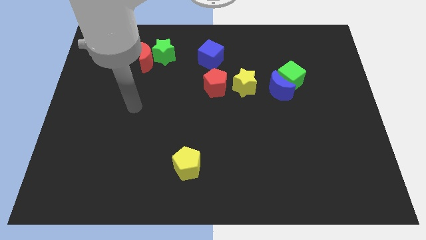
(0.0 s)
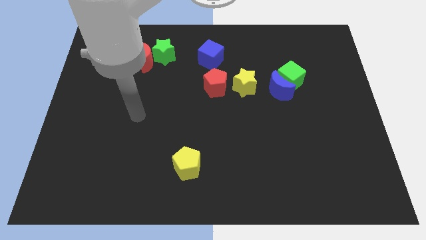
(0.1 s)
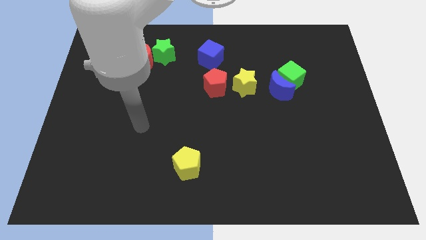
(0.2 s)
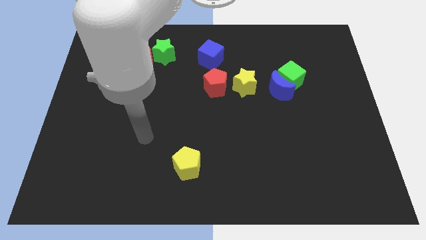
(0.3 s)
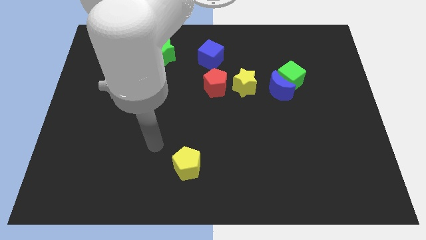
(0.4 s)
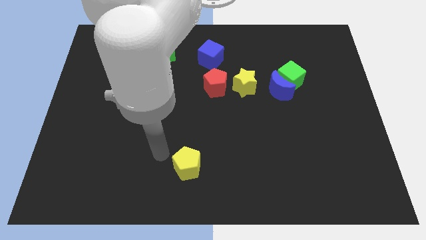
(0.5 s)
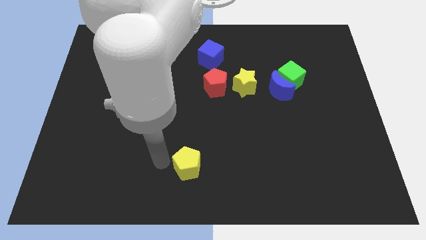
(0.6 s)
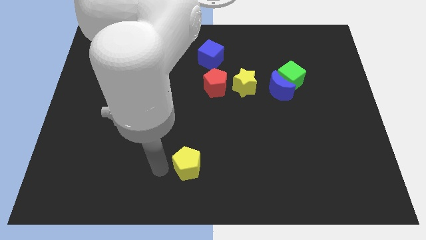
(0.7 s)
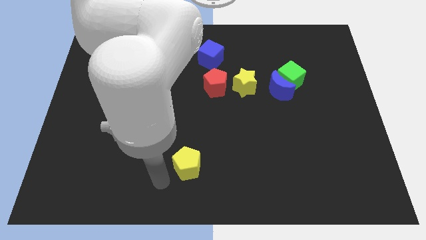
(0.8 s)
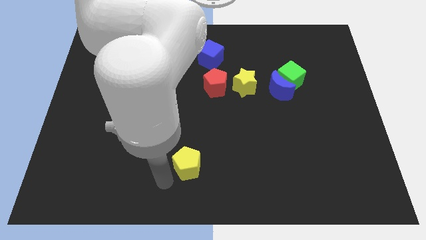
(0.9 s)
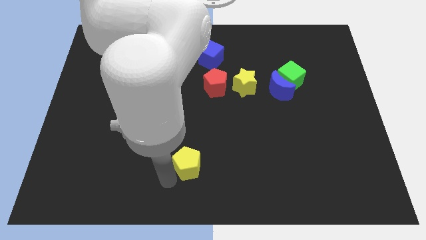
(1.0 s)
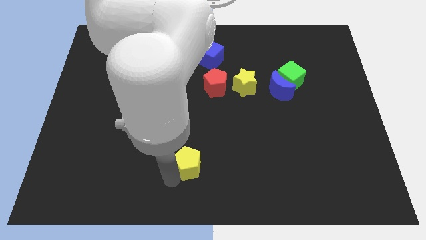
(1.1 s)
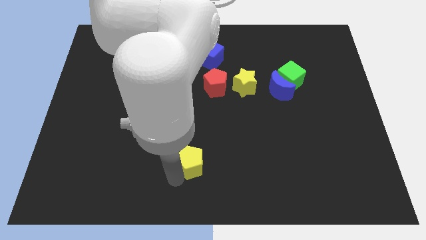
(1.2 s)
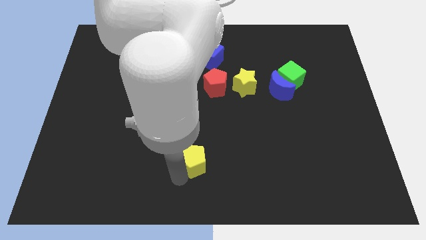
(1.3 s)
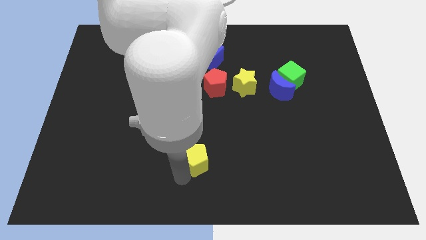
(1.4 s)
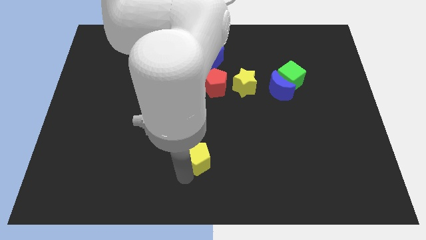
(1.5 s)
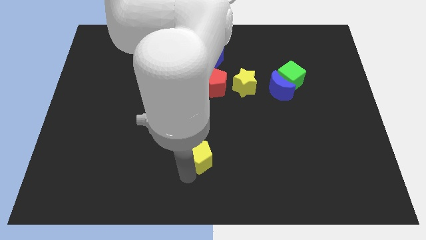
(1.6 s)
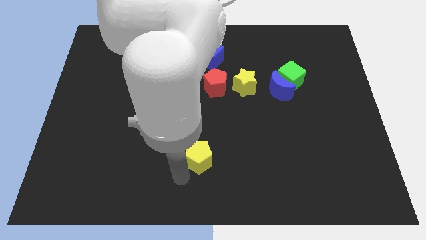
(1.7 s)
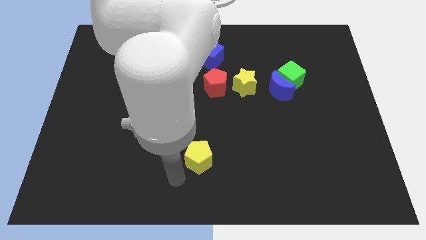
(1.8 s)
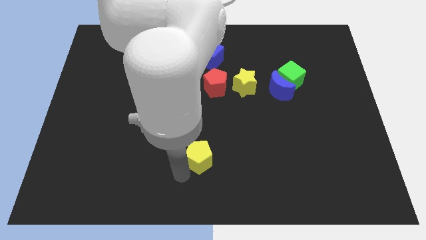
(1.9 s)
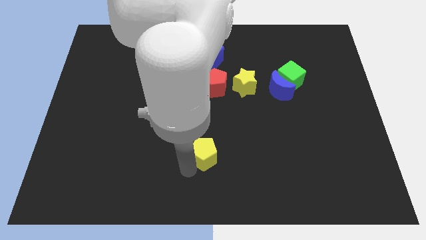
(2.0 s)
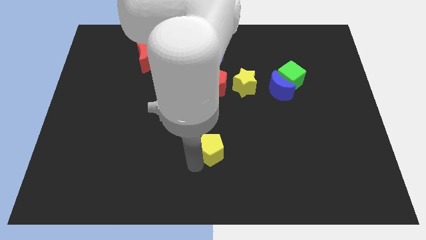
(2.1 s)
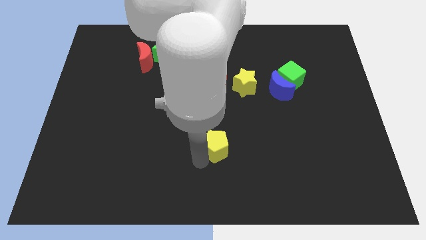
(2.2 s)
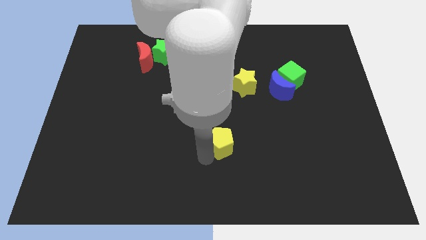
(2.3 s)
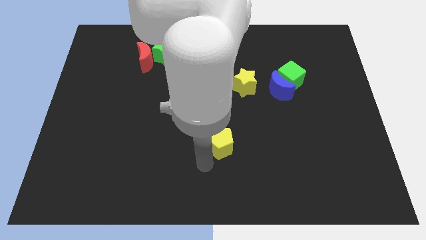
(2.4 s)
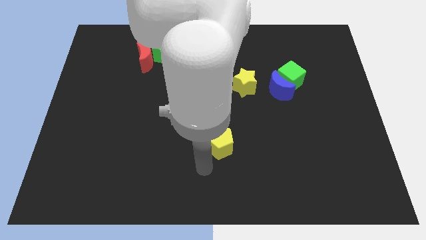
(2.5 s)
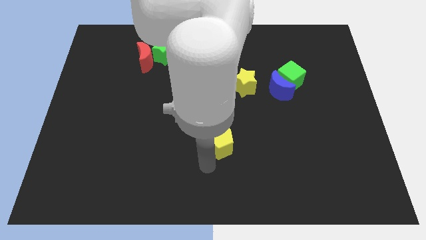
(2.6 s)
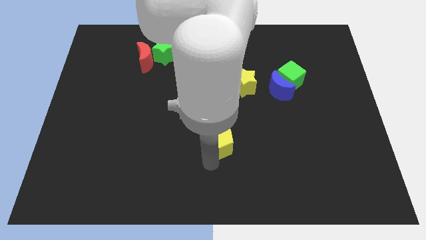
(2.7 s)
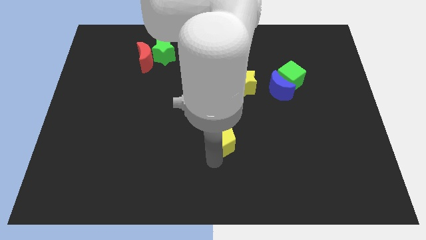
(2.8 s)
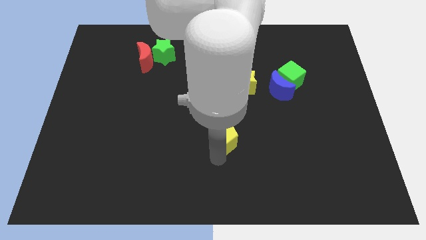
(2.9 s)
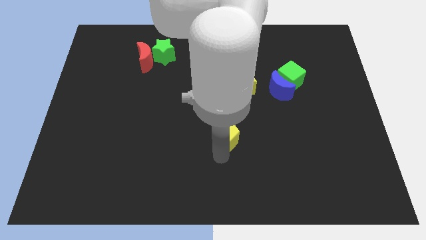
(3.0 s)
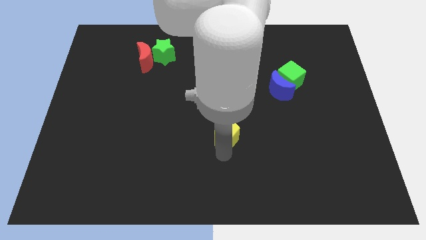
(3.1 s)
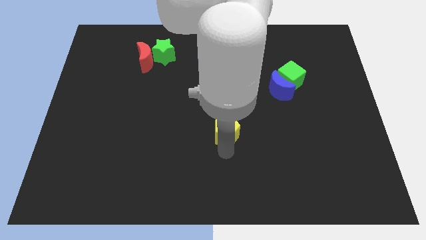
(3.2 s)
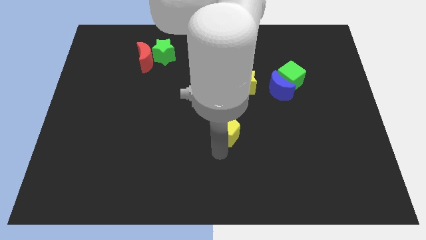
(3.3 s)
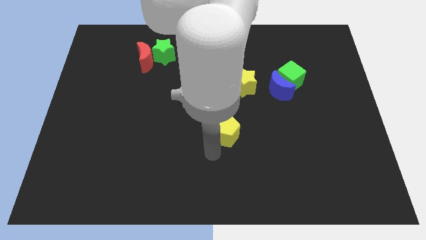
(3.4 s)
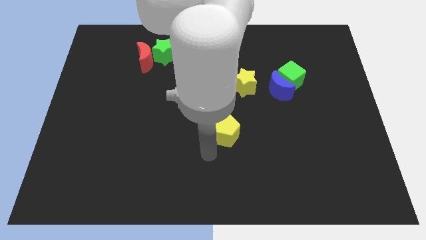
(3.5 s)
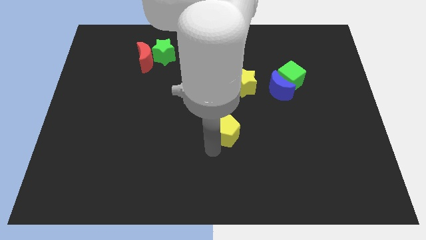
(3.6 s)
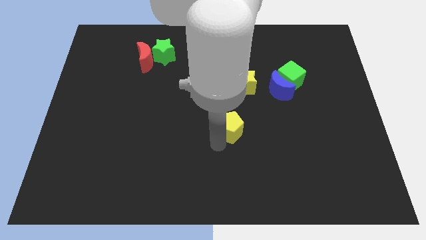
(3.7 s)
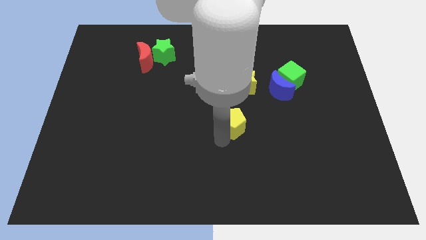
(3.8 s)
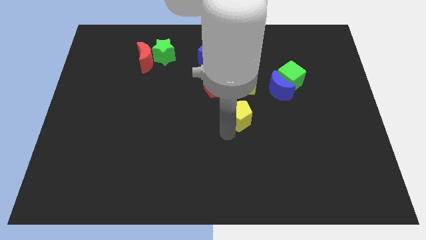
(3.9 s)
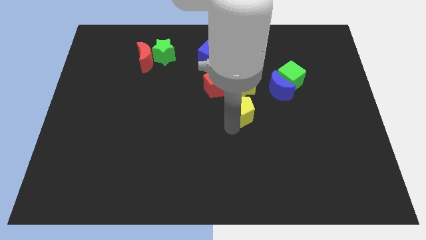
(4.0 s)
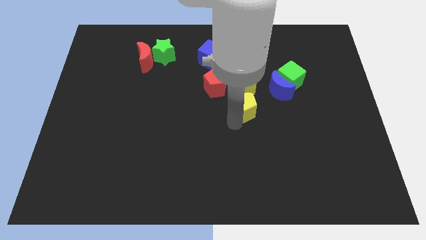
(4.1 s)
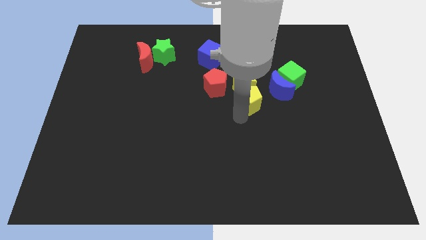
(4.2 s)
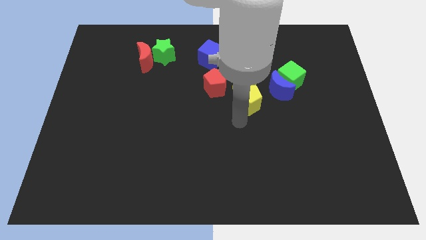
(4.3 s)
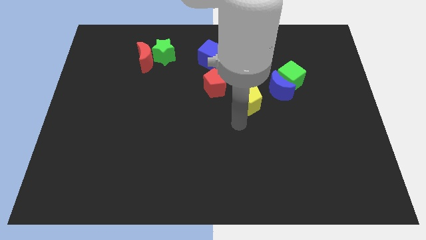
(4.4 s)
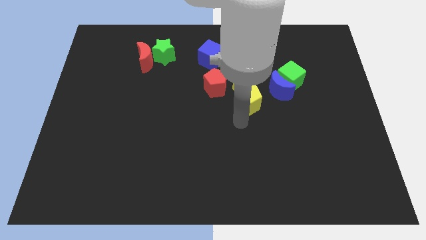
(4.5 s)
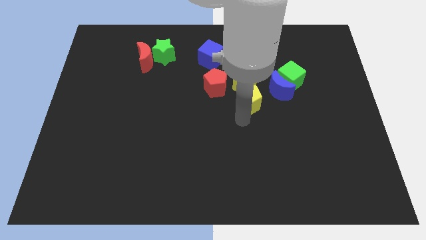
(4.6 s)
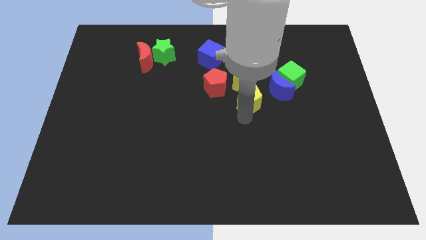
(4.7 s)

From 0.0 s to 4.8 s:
put the yellow pentagon to the right side of the red pentagon

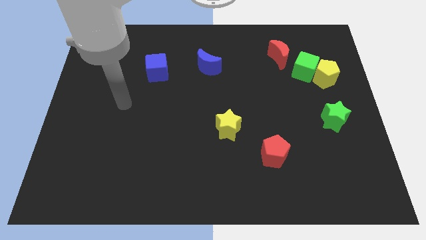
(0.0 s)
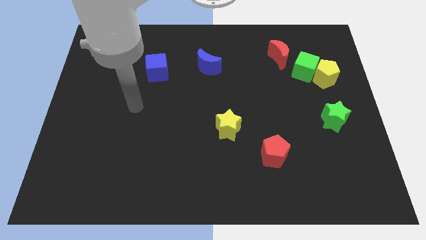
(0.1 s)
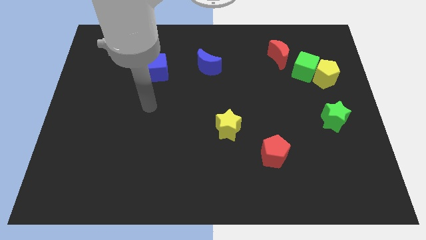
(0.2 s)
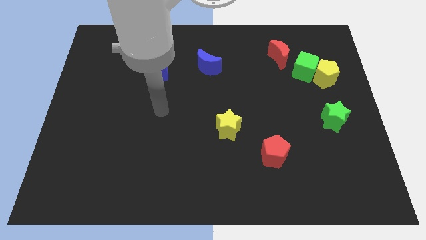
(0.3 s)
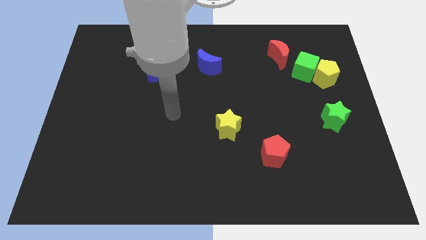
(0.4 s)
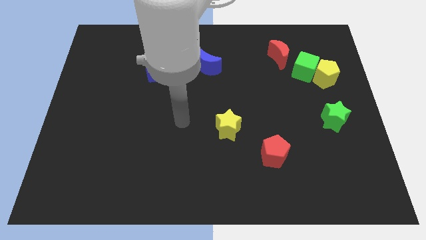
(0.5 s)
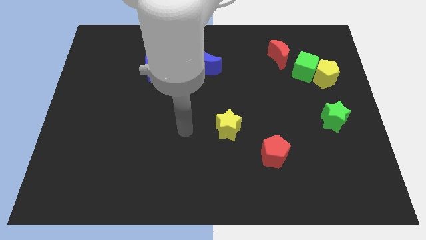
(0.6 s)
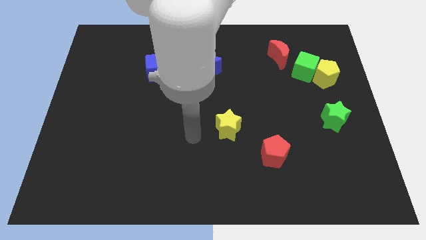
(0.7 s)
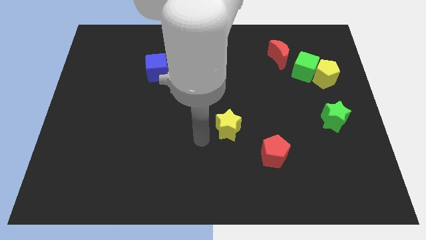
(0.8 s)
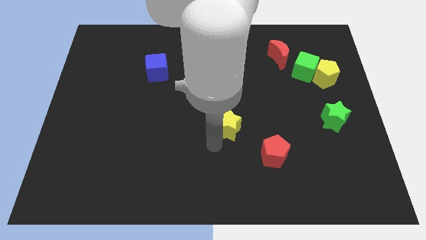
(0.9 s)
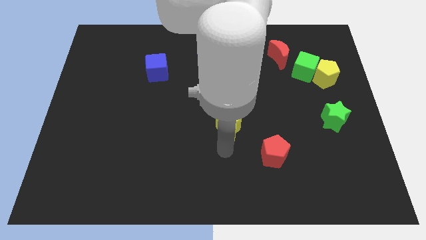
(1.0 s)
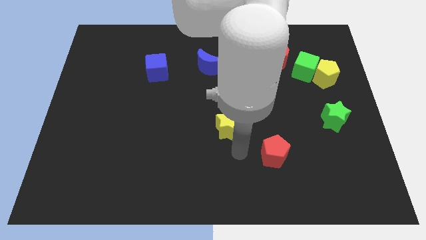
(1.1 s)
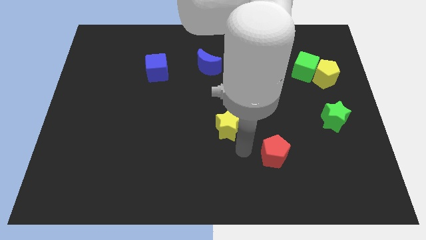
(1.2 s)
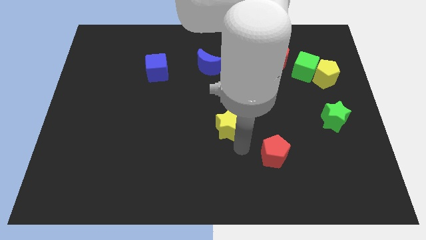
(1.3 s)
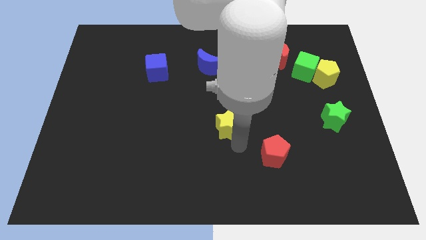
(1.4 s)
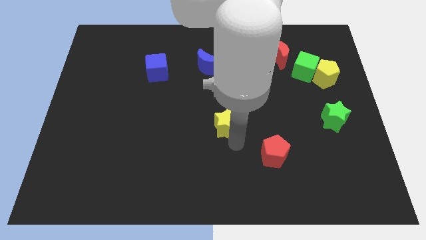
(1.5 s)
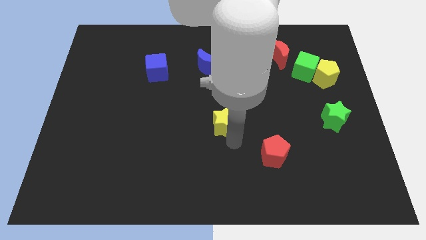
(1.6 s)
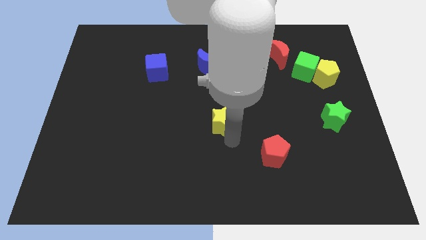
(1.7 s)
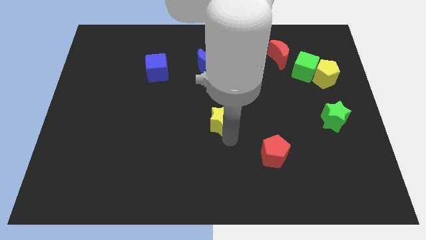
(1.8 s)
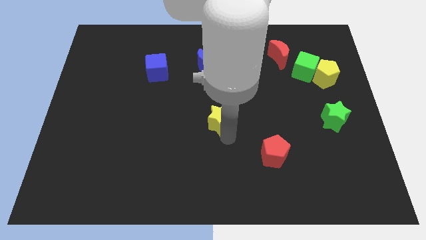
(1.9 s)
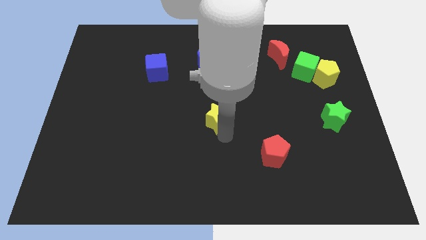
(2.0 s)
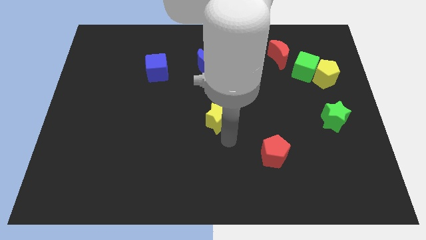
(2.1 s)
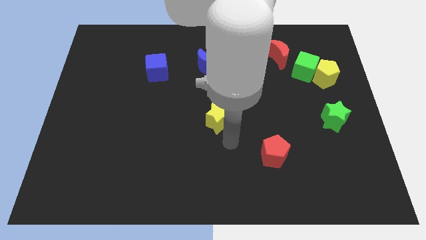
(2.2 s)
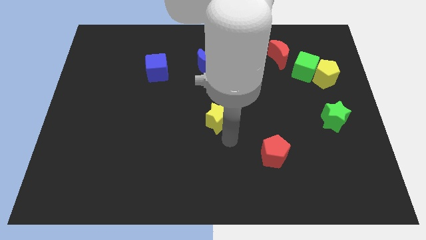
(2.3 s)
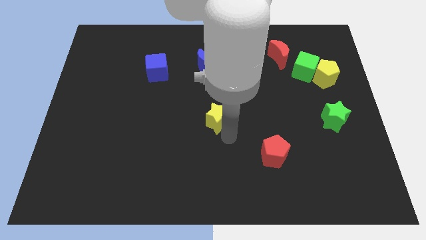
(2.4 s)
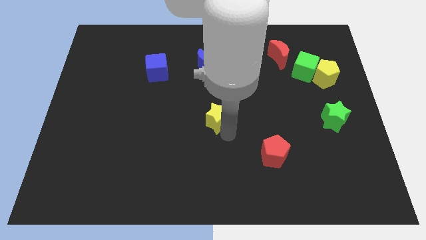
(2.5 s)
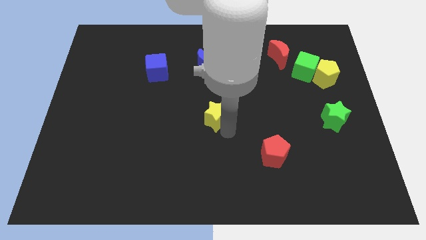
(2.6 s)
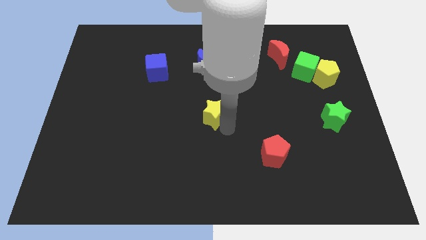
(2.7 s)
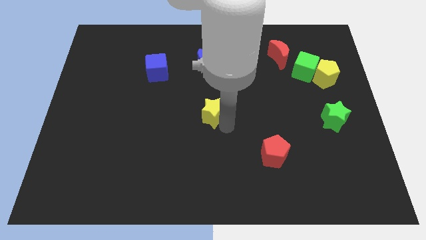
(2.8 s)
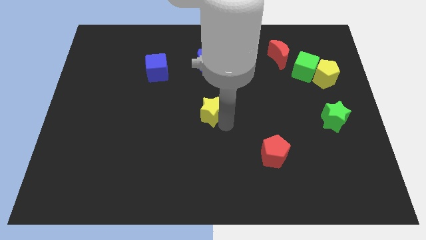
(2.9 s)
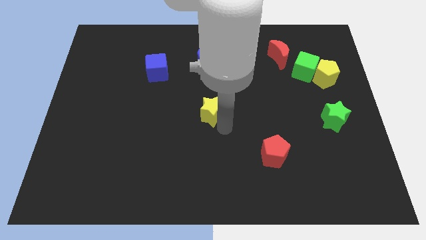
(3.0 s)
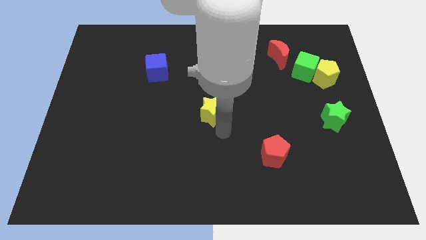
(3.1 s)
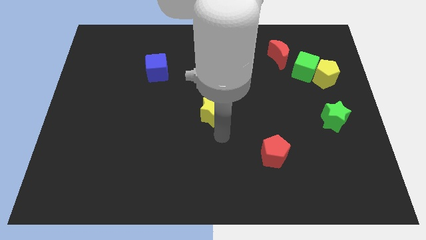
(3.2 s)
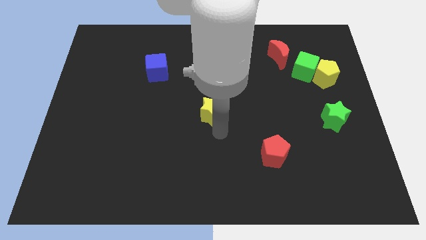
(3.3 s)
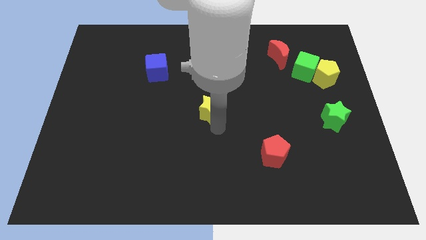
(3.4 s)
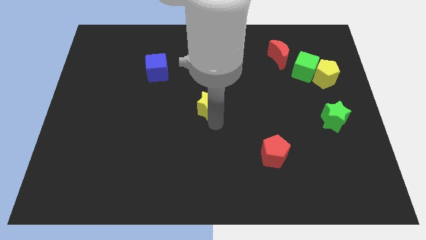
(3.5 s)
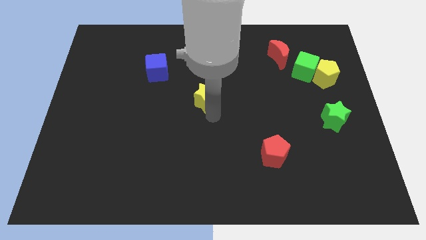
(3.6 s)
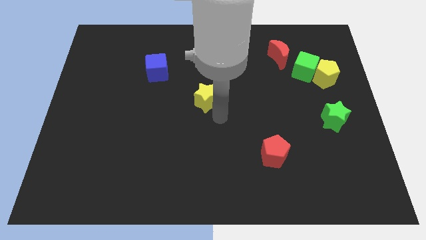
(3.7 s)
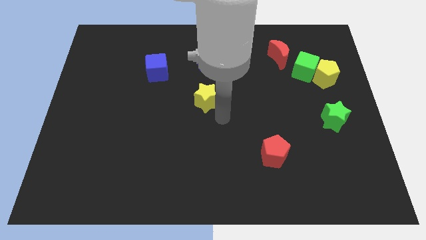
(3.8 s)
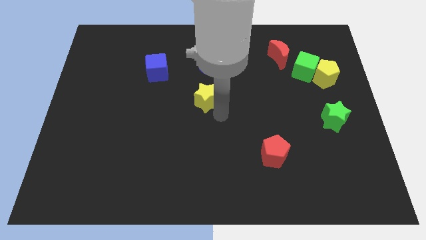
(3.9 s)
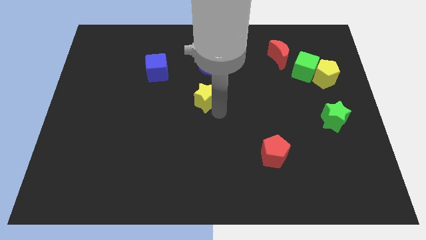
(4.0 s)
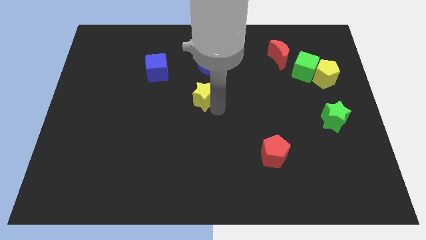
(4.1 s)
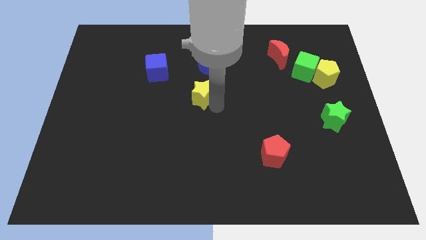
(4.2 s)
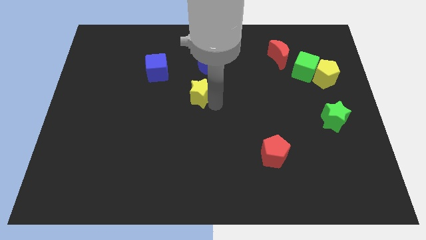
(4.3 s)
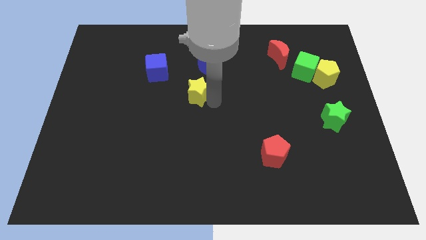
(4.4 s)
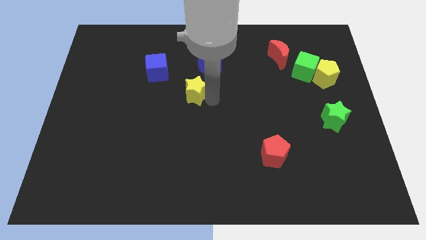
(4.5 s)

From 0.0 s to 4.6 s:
slide the yellow star to the bottom left side of the blue moon
